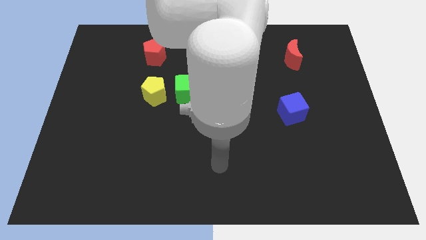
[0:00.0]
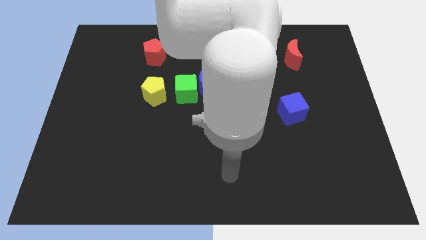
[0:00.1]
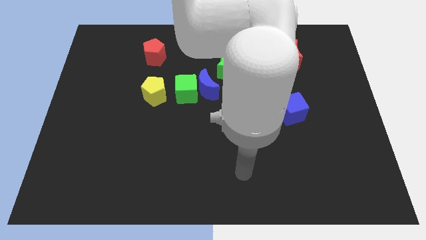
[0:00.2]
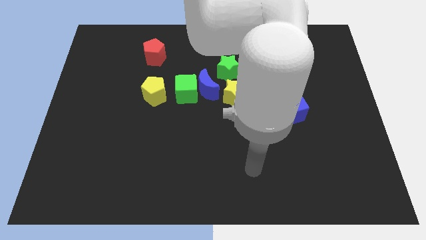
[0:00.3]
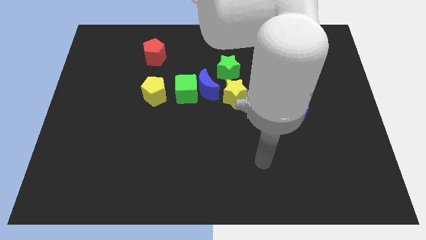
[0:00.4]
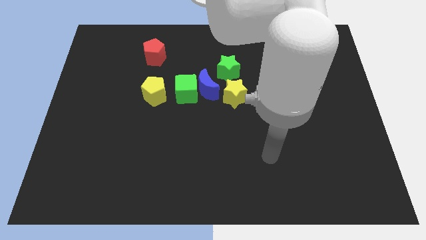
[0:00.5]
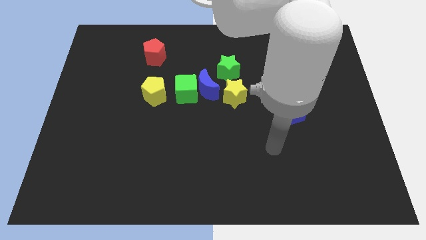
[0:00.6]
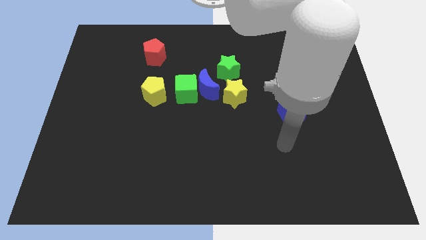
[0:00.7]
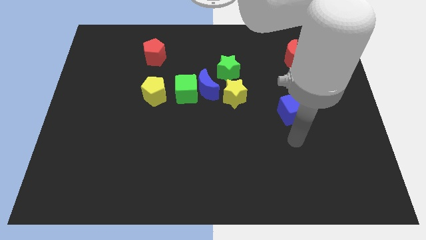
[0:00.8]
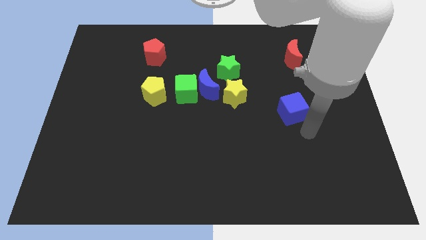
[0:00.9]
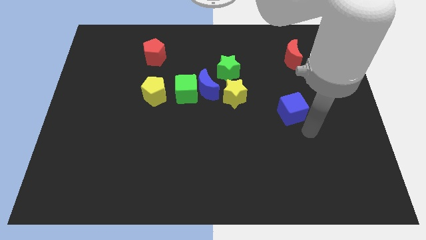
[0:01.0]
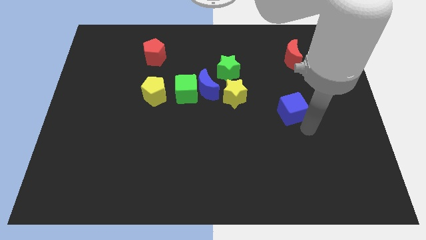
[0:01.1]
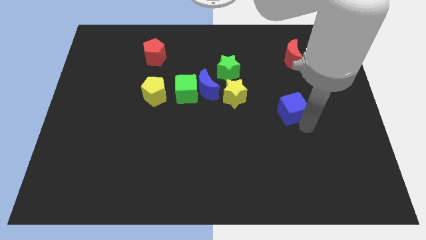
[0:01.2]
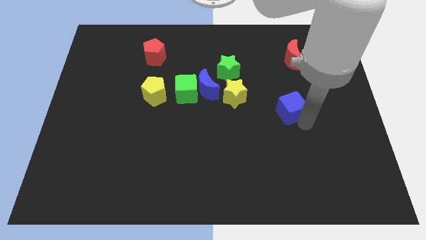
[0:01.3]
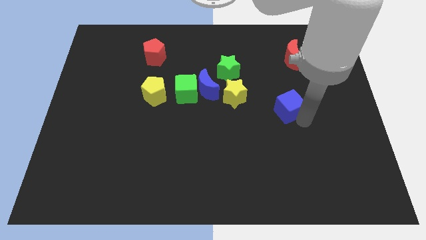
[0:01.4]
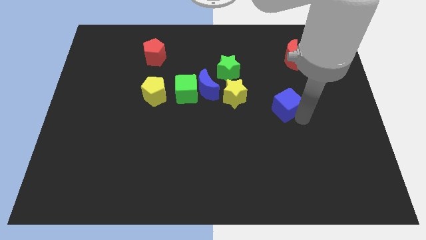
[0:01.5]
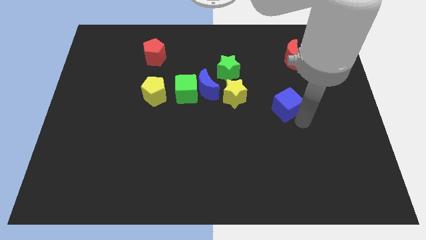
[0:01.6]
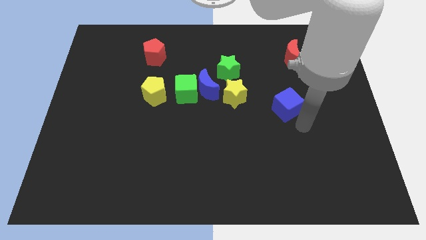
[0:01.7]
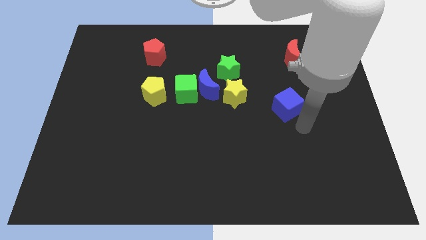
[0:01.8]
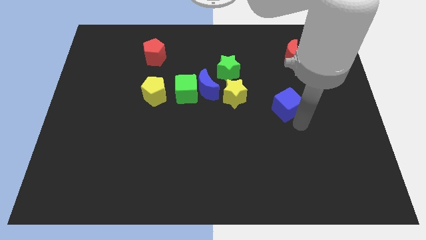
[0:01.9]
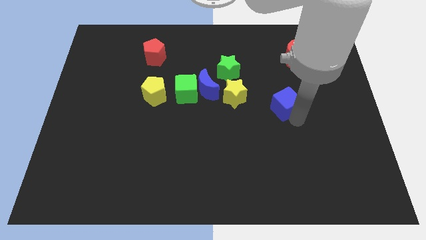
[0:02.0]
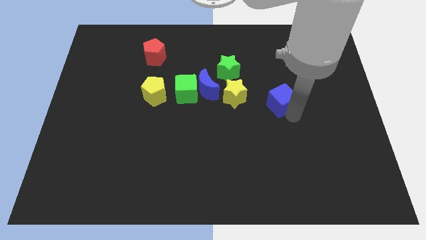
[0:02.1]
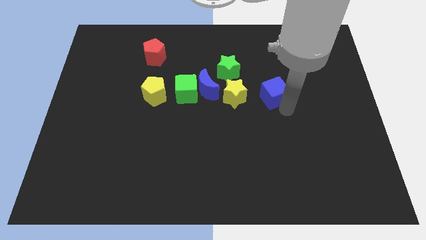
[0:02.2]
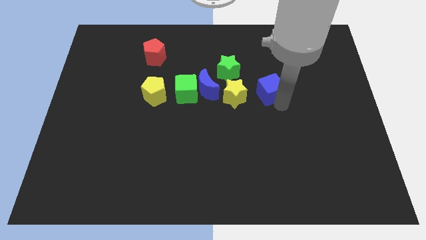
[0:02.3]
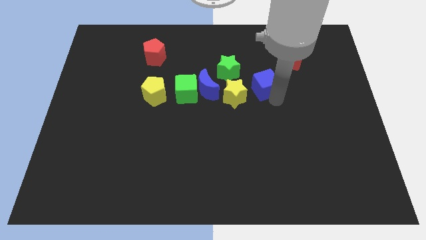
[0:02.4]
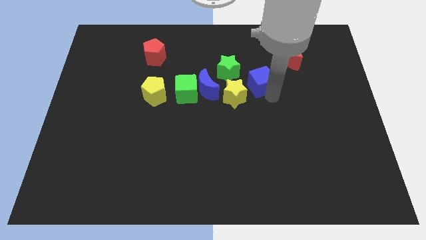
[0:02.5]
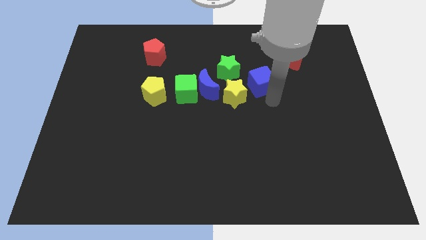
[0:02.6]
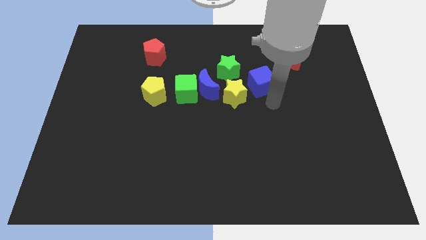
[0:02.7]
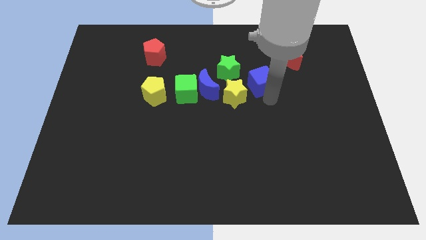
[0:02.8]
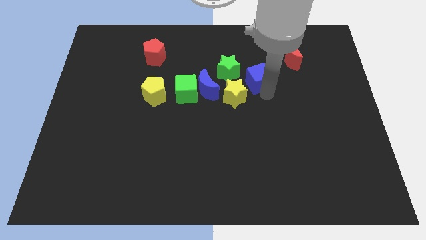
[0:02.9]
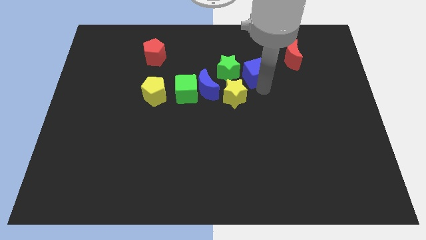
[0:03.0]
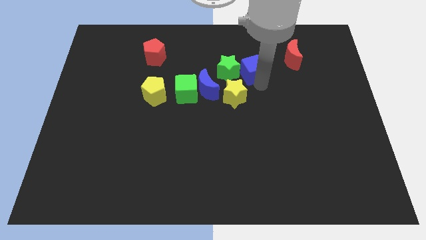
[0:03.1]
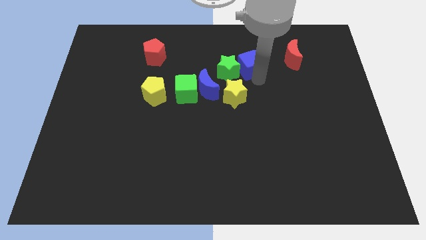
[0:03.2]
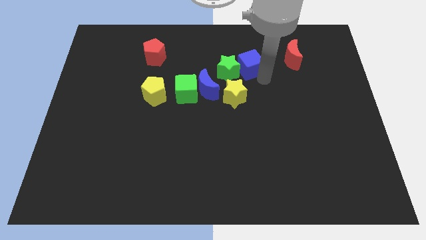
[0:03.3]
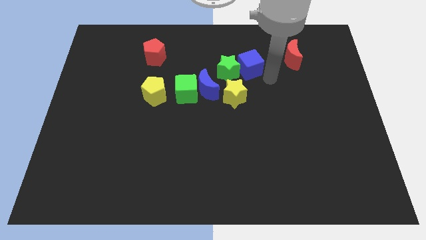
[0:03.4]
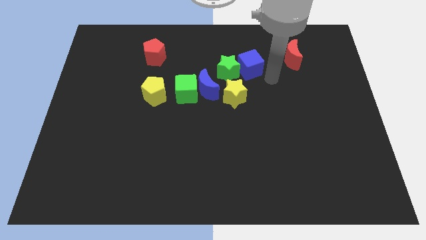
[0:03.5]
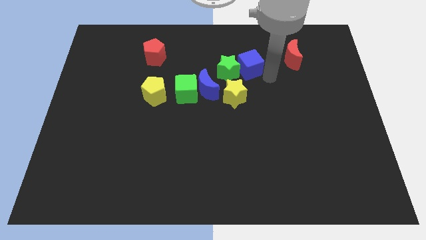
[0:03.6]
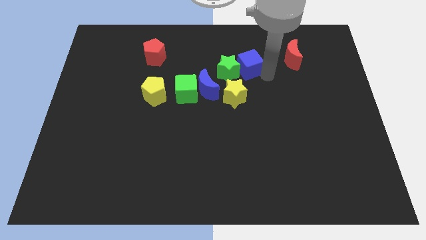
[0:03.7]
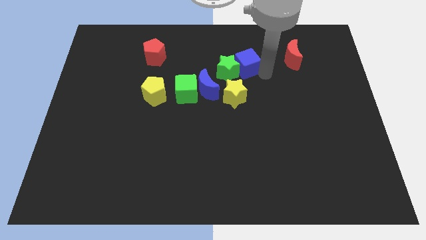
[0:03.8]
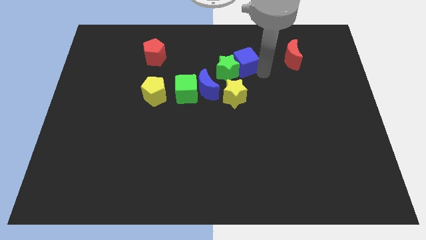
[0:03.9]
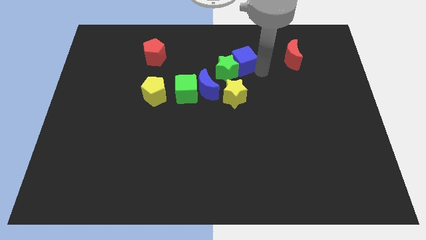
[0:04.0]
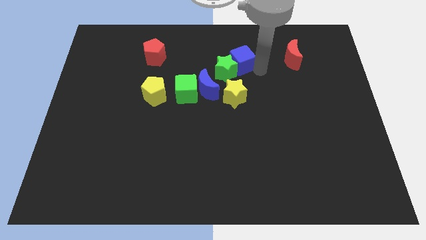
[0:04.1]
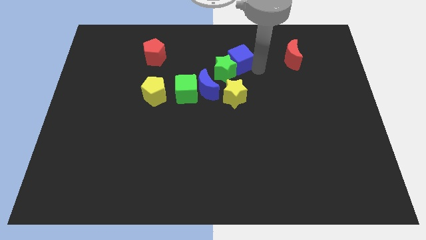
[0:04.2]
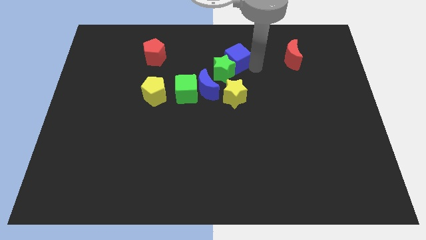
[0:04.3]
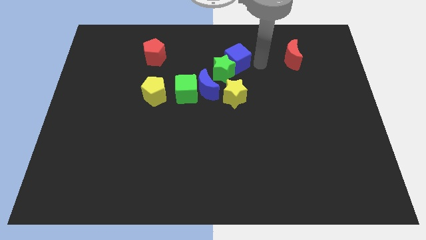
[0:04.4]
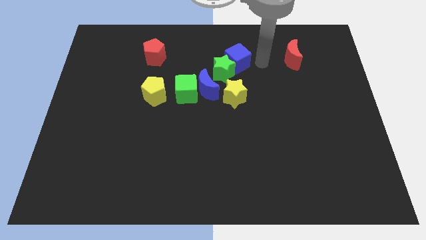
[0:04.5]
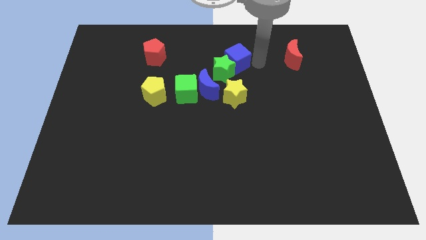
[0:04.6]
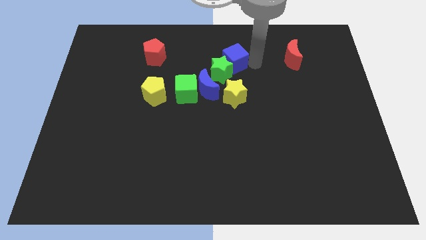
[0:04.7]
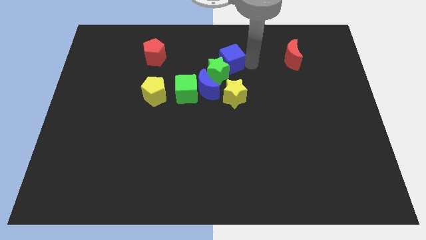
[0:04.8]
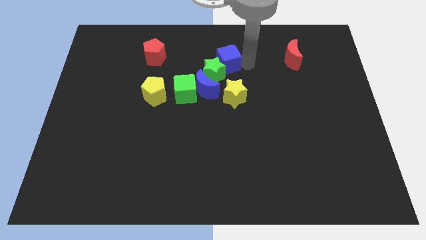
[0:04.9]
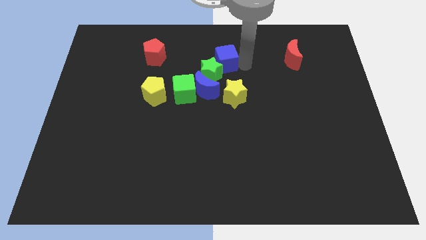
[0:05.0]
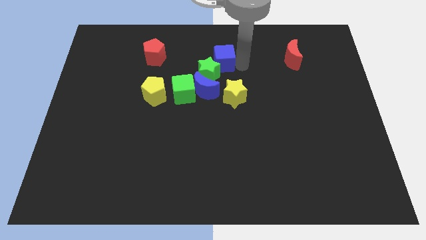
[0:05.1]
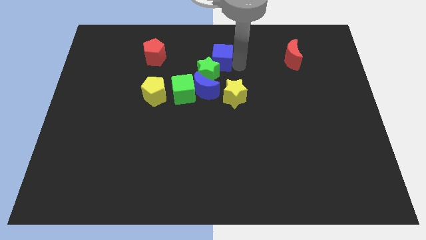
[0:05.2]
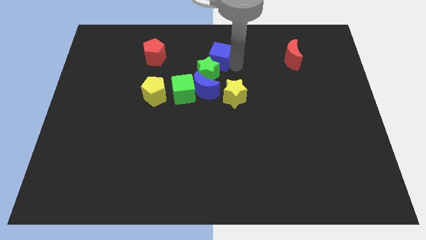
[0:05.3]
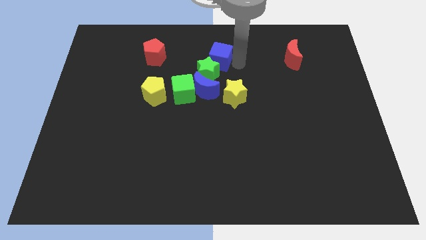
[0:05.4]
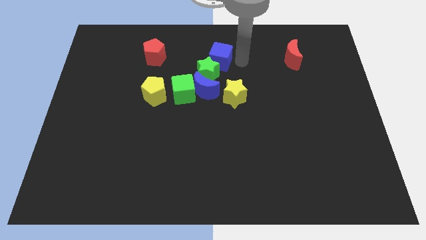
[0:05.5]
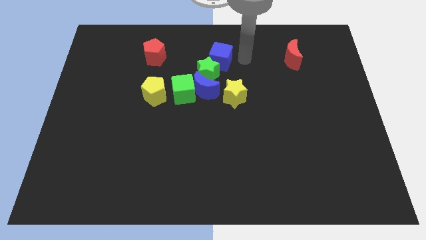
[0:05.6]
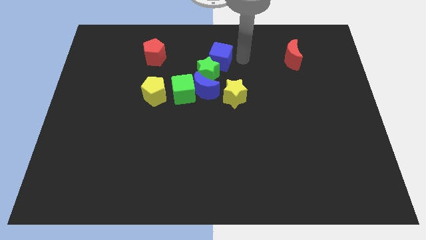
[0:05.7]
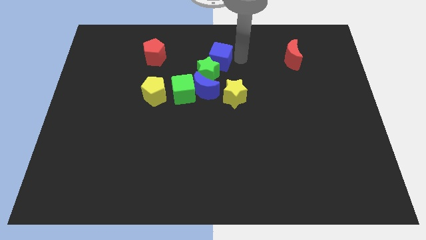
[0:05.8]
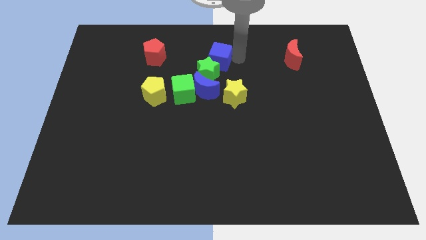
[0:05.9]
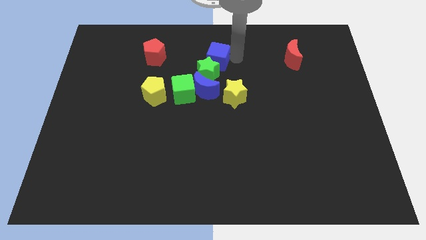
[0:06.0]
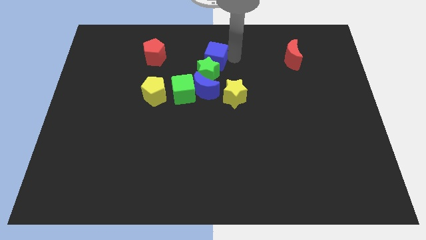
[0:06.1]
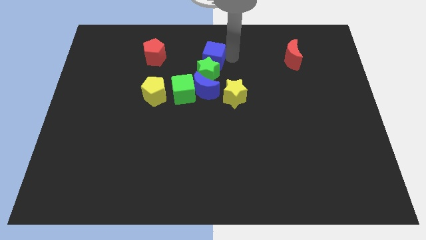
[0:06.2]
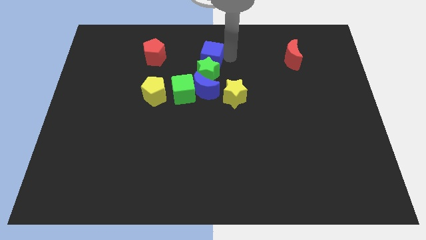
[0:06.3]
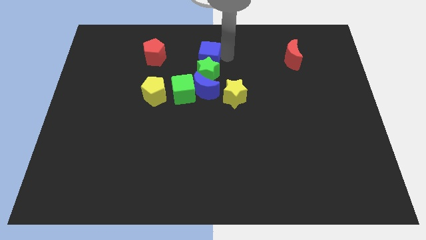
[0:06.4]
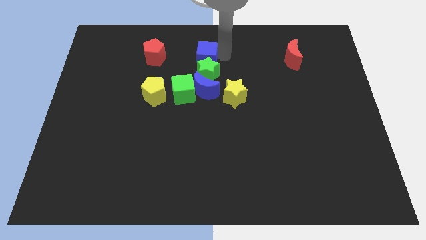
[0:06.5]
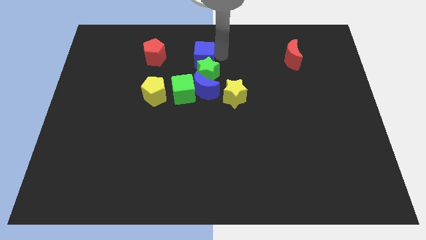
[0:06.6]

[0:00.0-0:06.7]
slide the blue cube above the green cube
